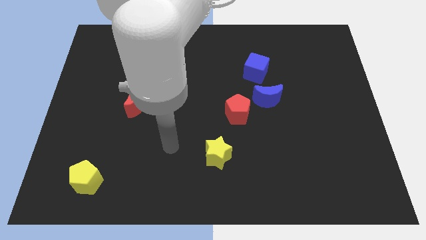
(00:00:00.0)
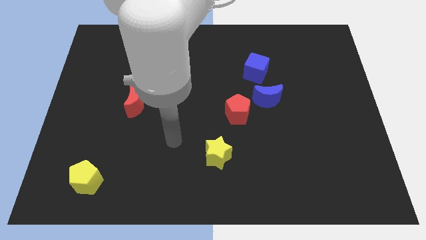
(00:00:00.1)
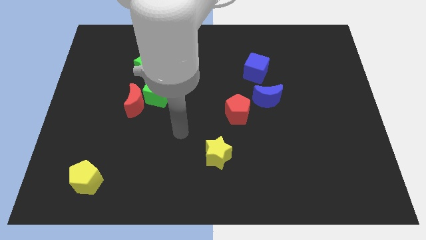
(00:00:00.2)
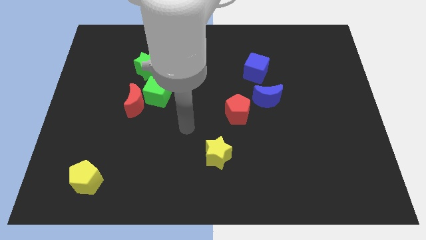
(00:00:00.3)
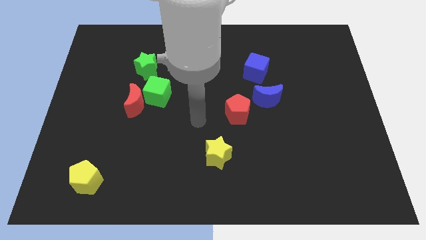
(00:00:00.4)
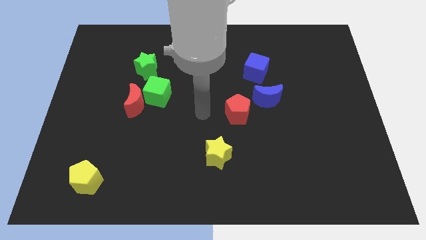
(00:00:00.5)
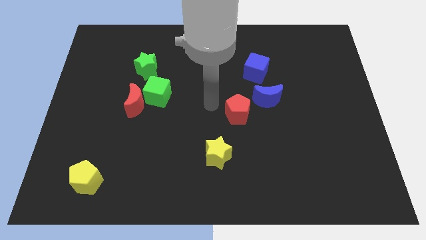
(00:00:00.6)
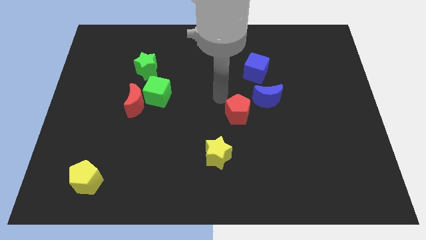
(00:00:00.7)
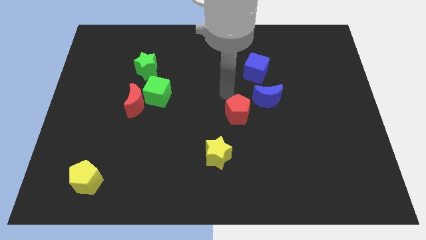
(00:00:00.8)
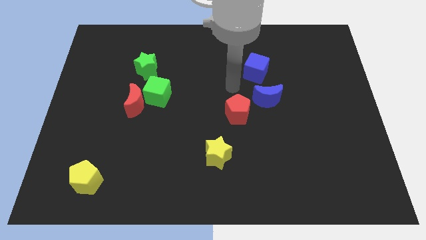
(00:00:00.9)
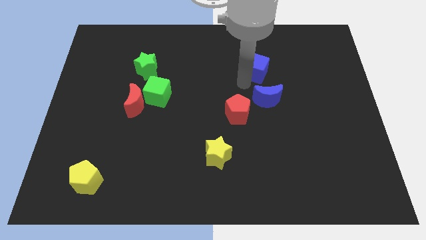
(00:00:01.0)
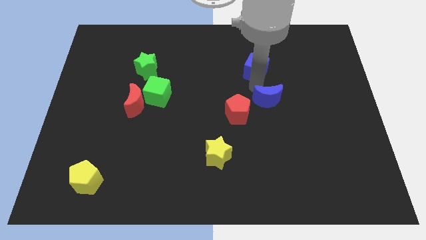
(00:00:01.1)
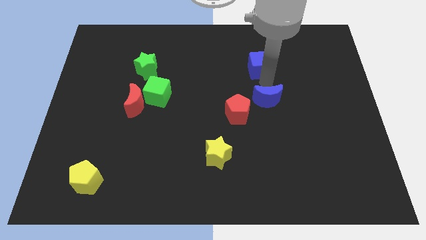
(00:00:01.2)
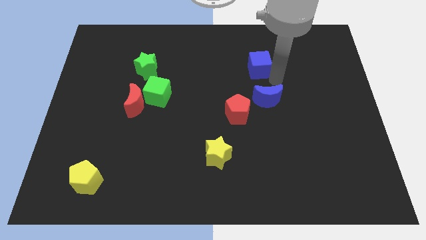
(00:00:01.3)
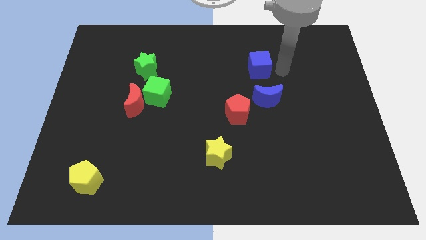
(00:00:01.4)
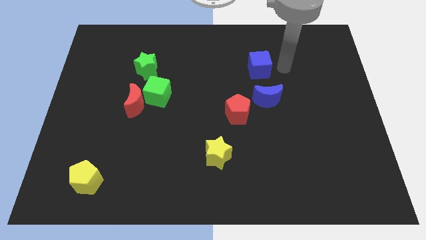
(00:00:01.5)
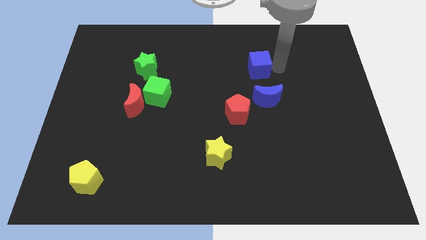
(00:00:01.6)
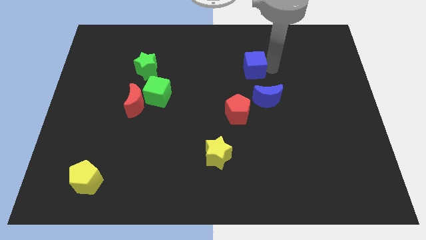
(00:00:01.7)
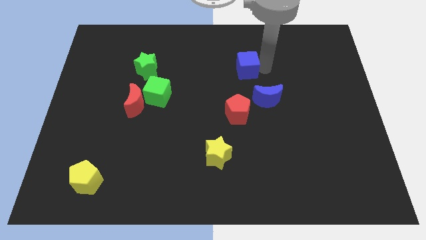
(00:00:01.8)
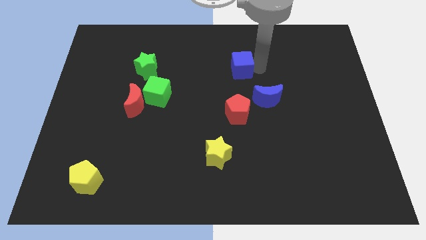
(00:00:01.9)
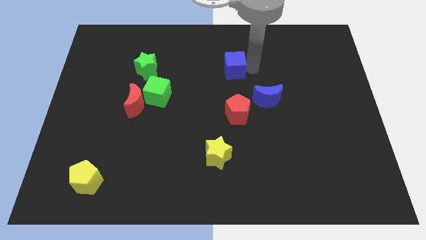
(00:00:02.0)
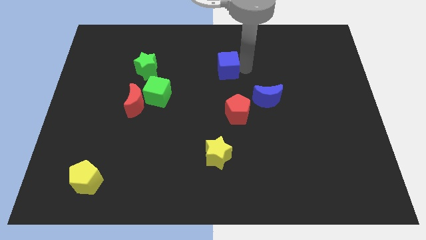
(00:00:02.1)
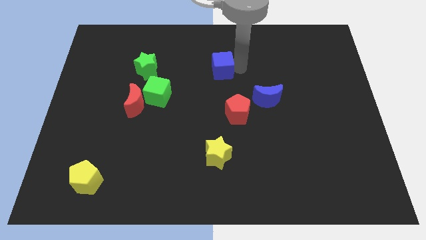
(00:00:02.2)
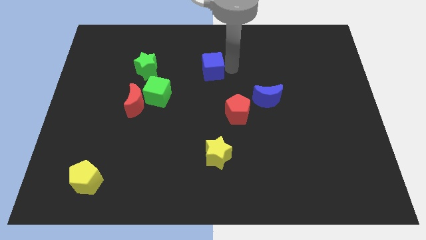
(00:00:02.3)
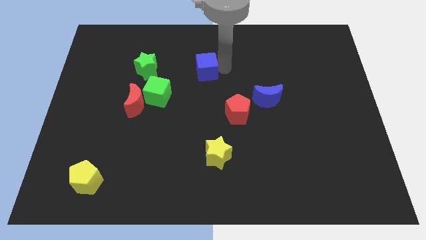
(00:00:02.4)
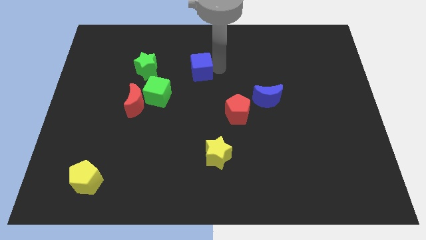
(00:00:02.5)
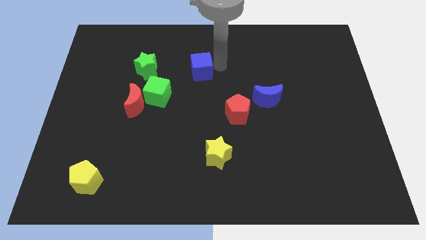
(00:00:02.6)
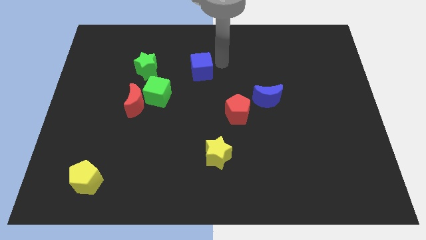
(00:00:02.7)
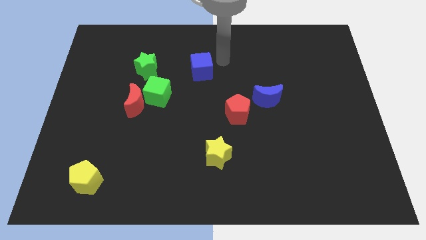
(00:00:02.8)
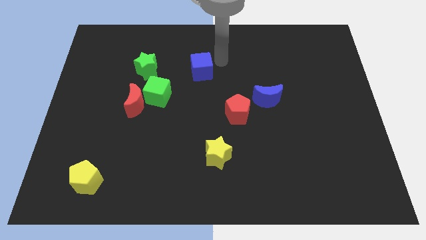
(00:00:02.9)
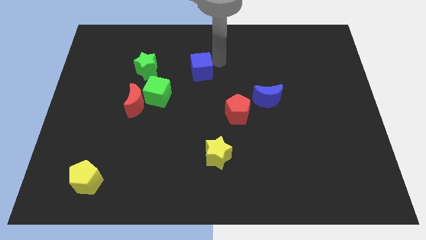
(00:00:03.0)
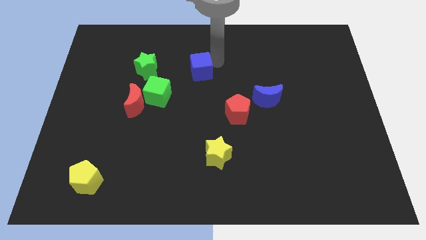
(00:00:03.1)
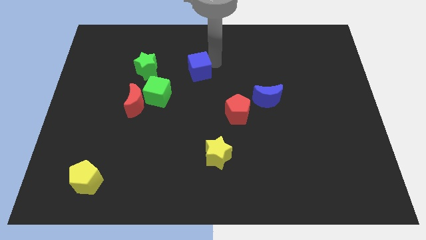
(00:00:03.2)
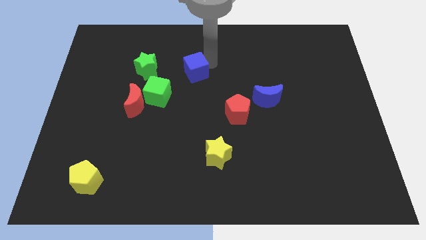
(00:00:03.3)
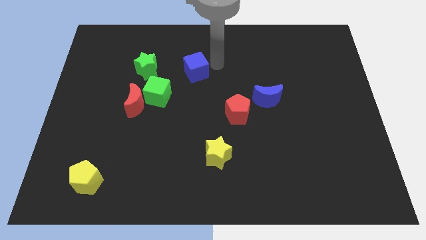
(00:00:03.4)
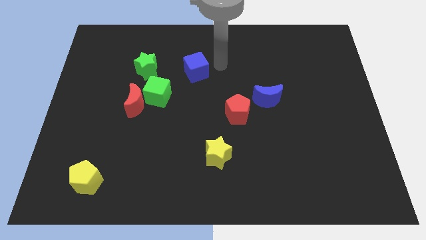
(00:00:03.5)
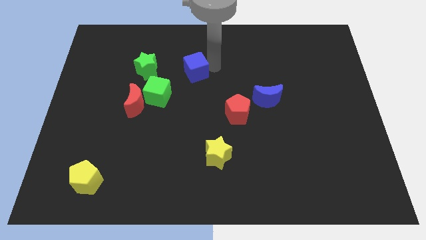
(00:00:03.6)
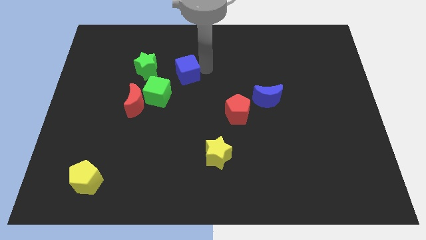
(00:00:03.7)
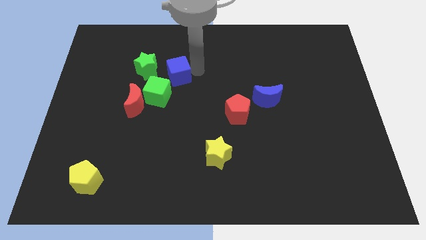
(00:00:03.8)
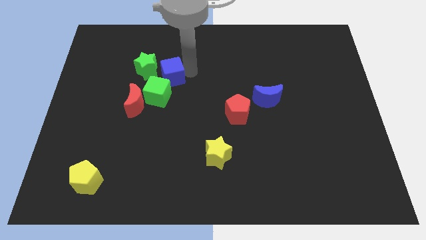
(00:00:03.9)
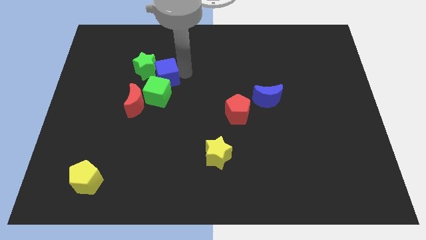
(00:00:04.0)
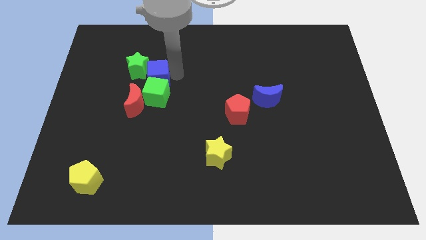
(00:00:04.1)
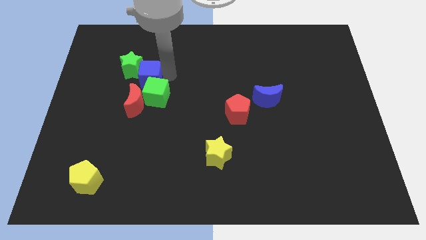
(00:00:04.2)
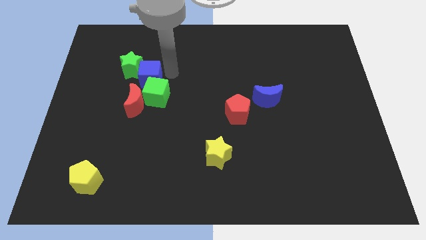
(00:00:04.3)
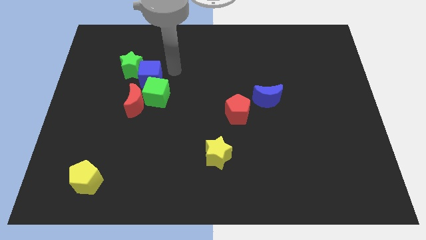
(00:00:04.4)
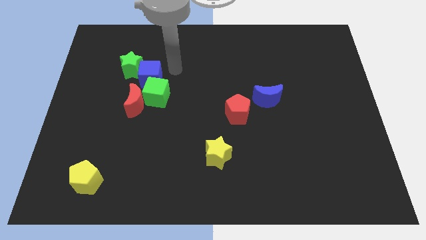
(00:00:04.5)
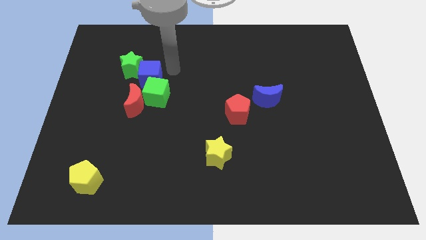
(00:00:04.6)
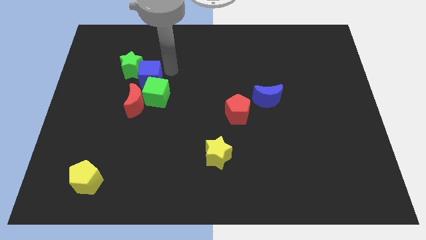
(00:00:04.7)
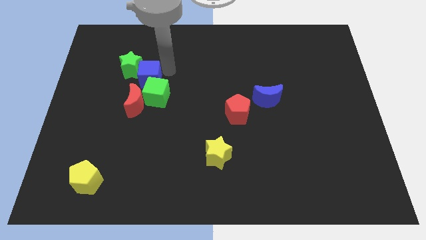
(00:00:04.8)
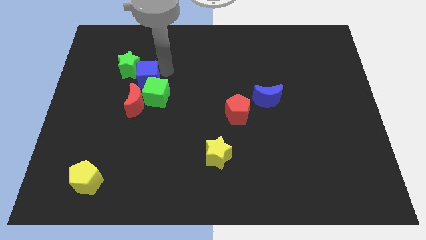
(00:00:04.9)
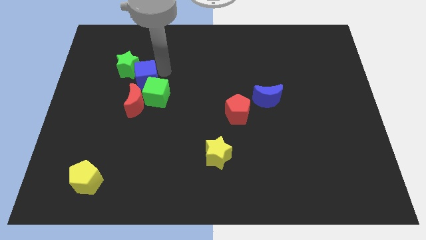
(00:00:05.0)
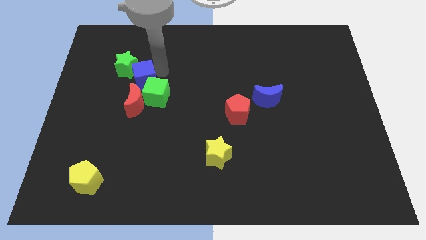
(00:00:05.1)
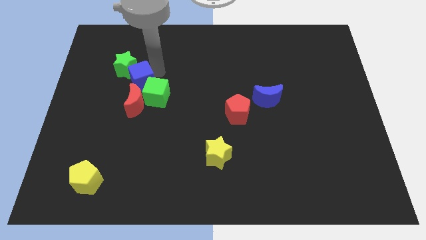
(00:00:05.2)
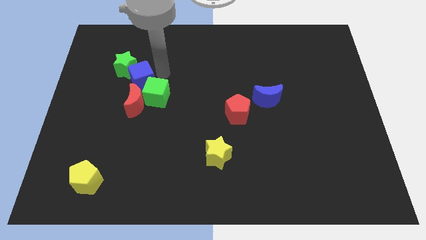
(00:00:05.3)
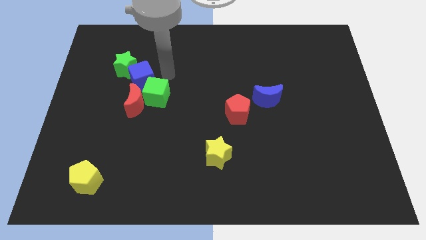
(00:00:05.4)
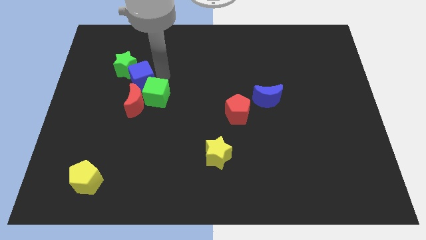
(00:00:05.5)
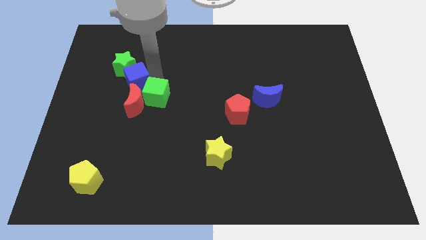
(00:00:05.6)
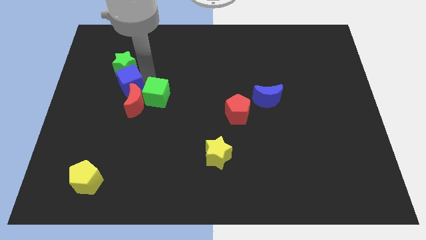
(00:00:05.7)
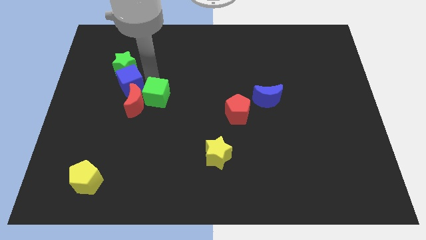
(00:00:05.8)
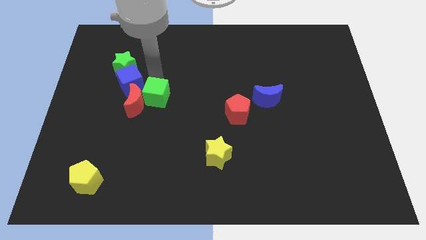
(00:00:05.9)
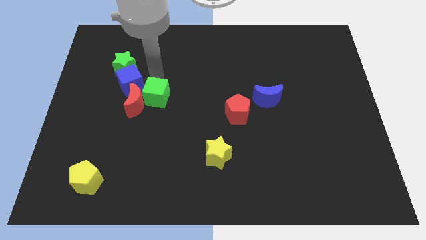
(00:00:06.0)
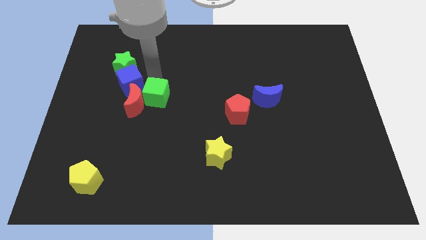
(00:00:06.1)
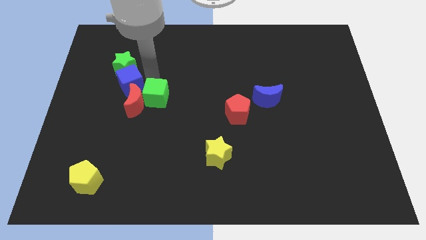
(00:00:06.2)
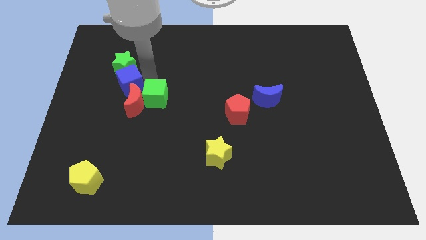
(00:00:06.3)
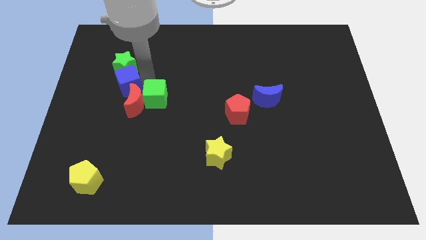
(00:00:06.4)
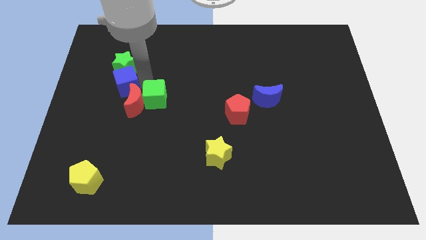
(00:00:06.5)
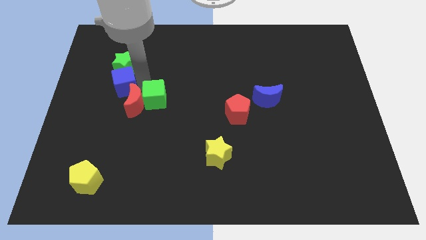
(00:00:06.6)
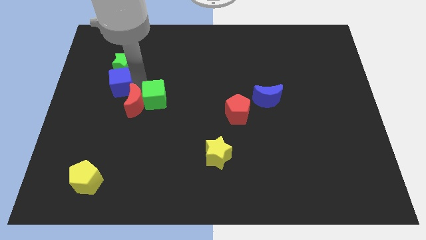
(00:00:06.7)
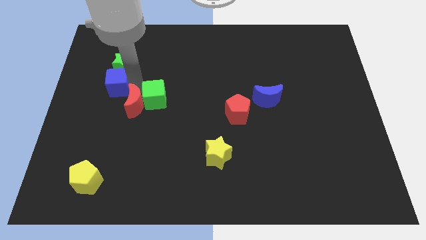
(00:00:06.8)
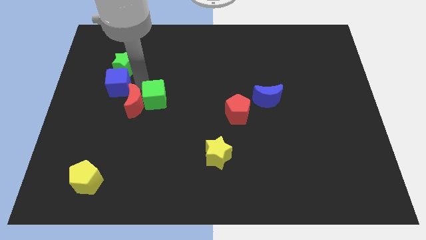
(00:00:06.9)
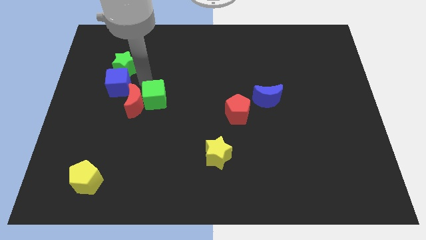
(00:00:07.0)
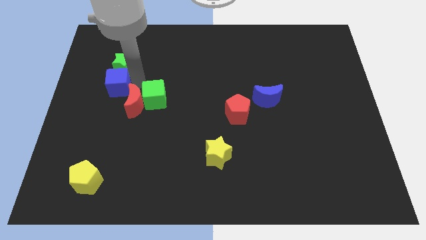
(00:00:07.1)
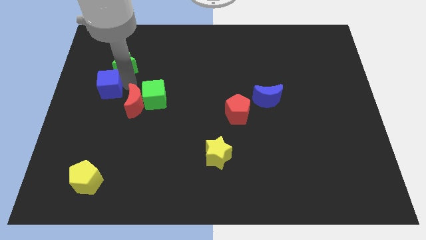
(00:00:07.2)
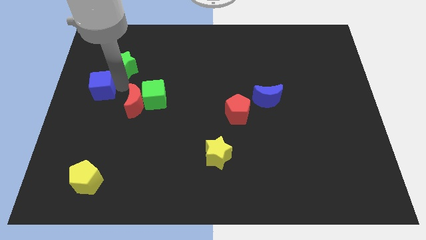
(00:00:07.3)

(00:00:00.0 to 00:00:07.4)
put the blue cube to the center left
